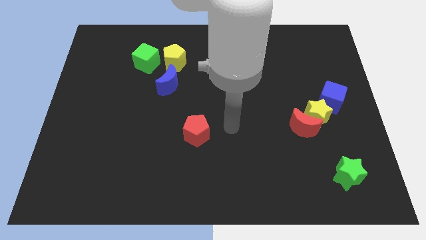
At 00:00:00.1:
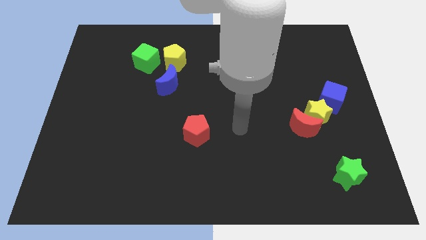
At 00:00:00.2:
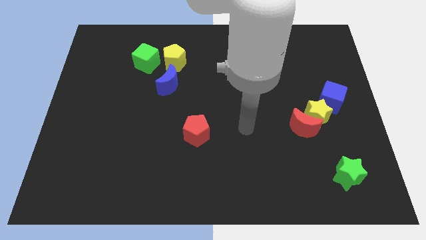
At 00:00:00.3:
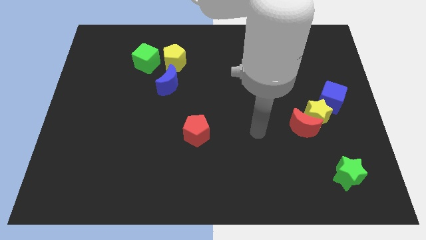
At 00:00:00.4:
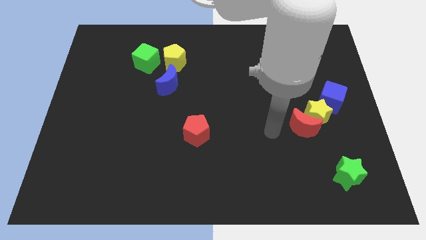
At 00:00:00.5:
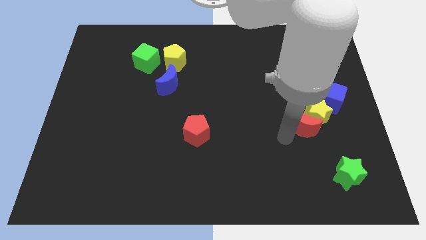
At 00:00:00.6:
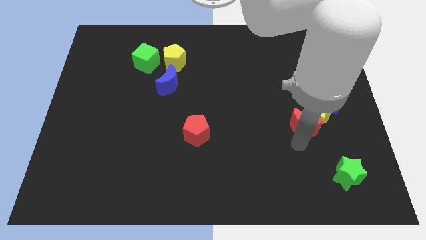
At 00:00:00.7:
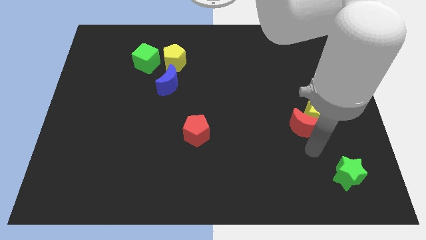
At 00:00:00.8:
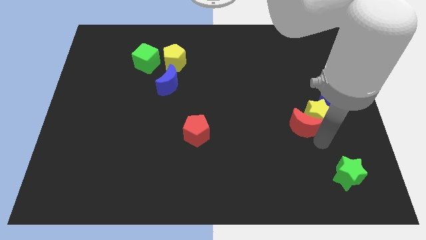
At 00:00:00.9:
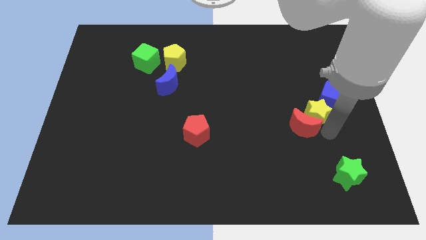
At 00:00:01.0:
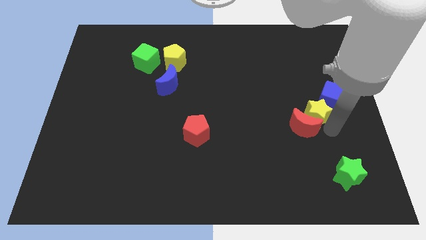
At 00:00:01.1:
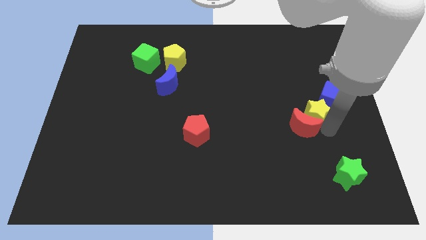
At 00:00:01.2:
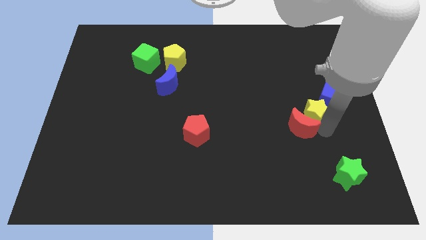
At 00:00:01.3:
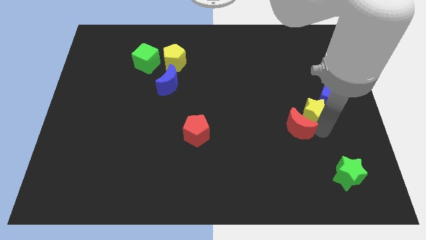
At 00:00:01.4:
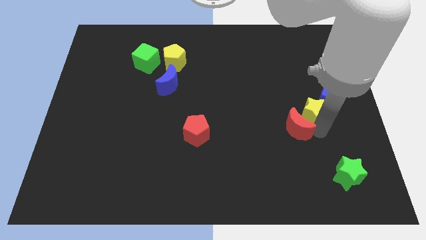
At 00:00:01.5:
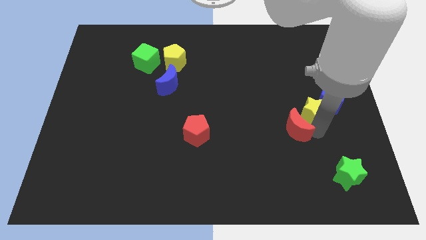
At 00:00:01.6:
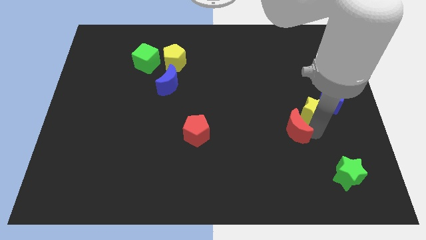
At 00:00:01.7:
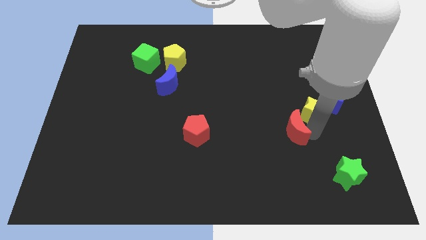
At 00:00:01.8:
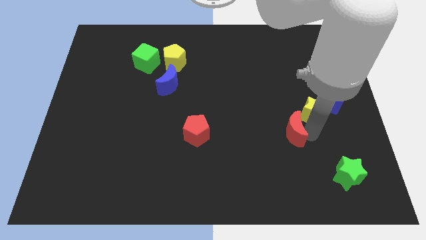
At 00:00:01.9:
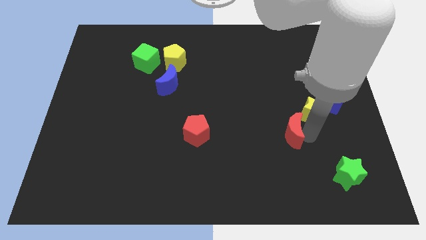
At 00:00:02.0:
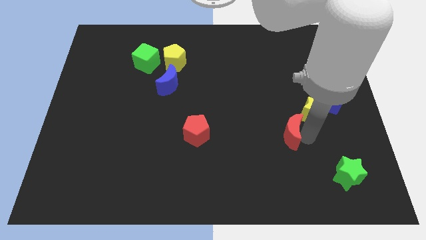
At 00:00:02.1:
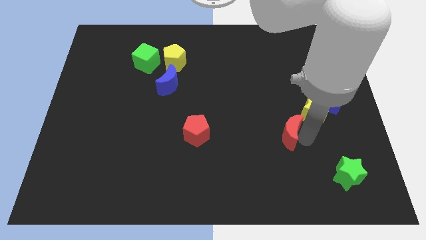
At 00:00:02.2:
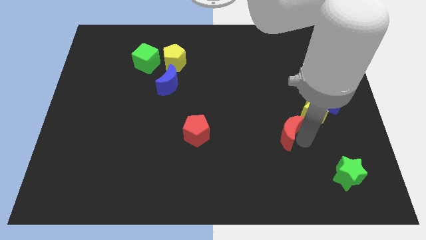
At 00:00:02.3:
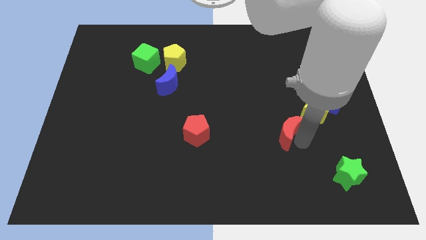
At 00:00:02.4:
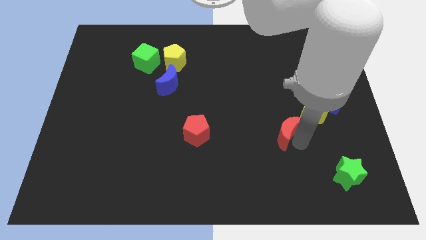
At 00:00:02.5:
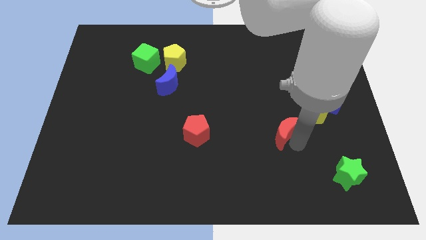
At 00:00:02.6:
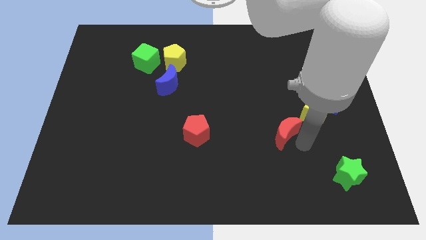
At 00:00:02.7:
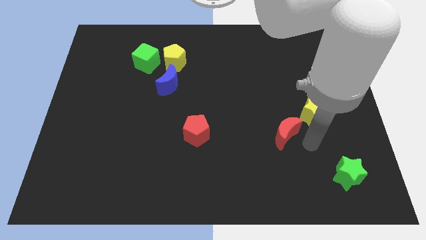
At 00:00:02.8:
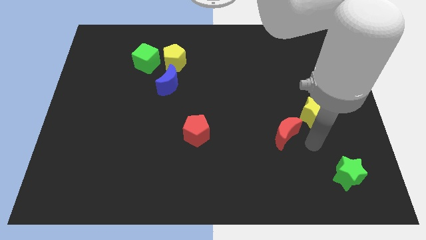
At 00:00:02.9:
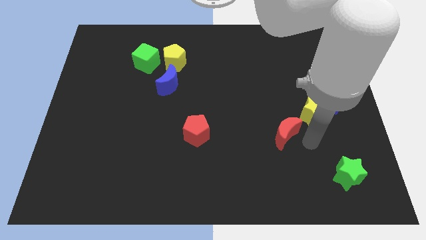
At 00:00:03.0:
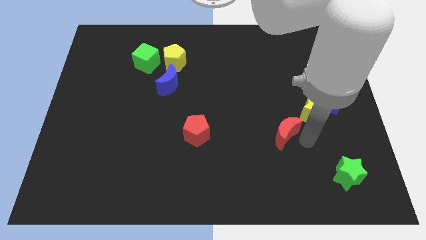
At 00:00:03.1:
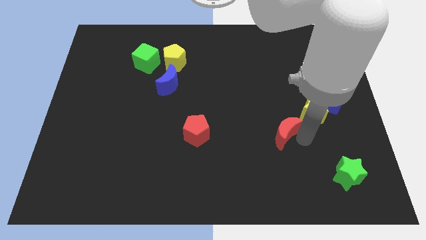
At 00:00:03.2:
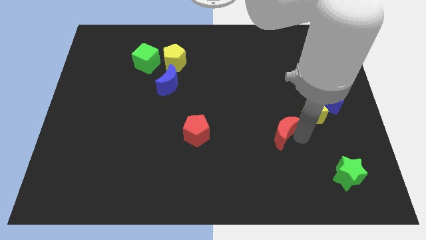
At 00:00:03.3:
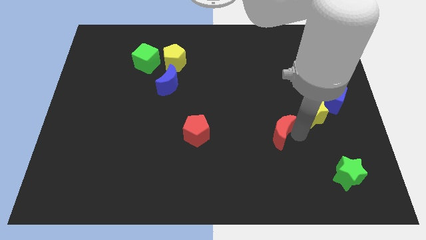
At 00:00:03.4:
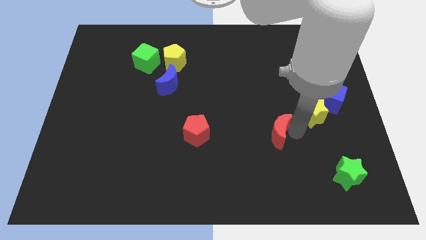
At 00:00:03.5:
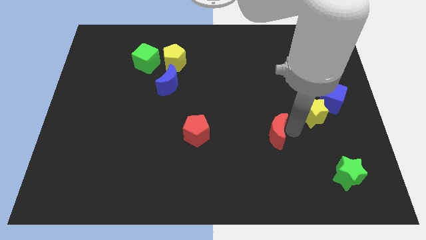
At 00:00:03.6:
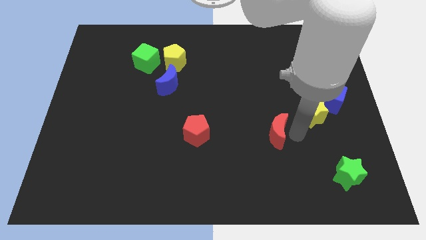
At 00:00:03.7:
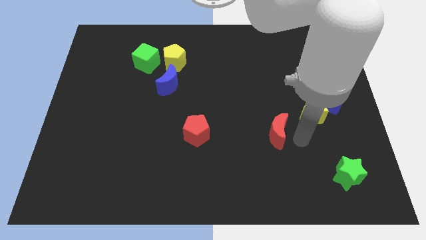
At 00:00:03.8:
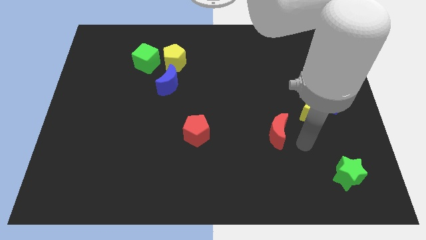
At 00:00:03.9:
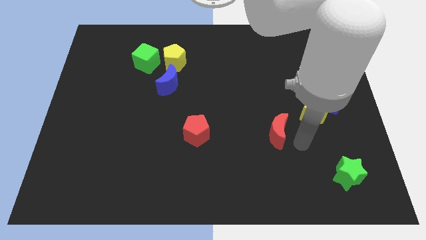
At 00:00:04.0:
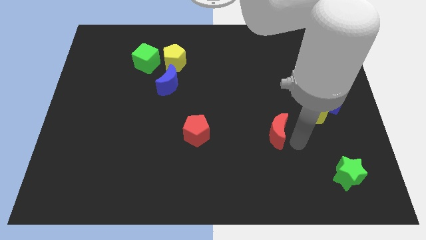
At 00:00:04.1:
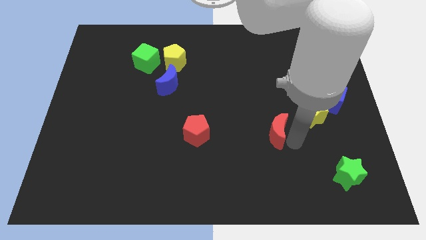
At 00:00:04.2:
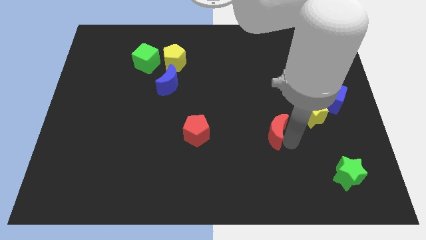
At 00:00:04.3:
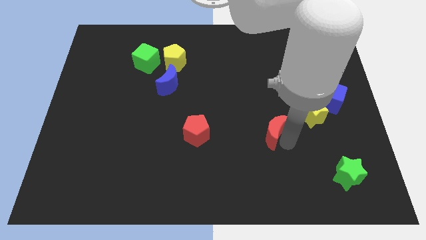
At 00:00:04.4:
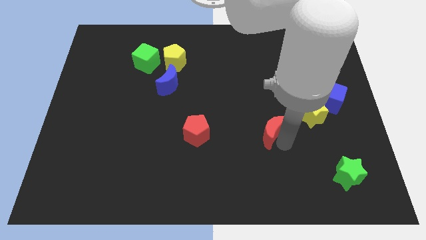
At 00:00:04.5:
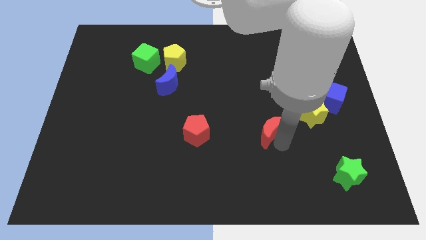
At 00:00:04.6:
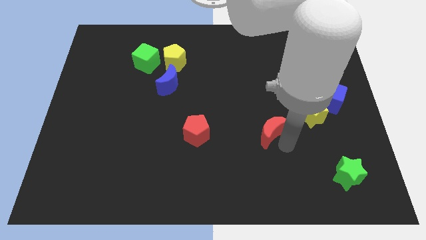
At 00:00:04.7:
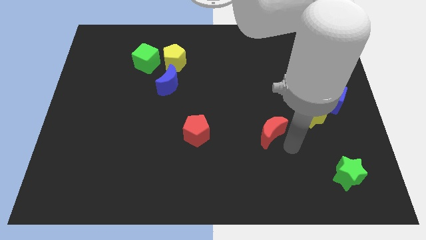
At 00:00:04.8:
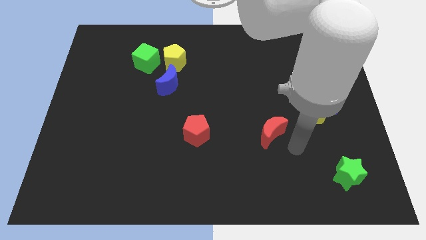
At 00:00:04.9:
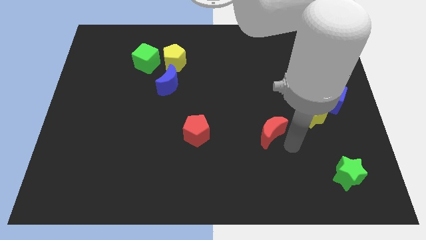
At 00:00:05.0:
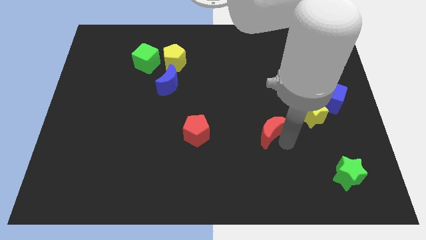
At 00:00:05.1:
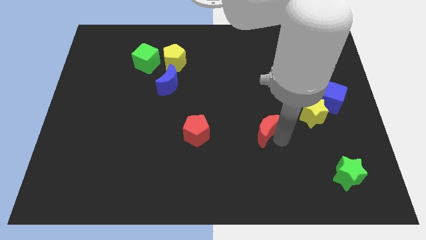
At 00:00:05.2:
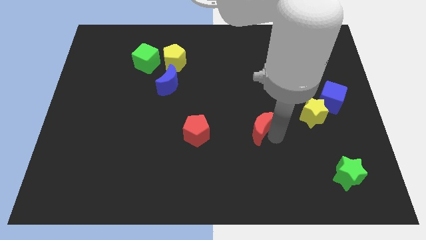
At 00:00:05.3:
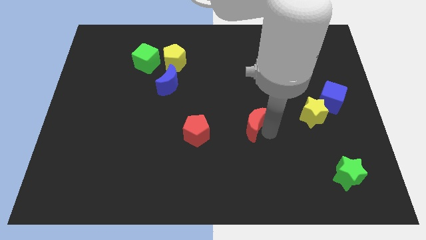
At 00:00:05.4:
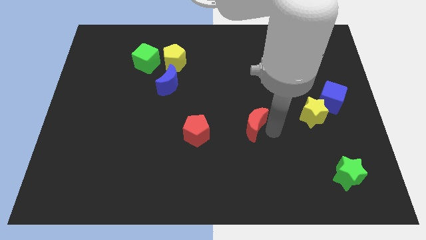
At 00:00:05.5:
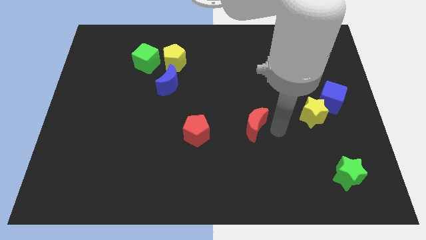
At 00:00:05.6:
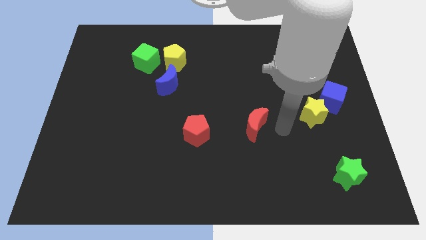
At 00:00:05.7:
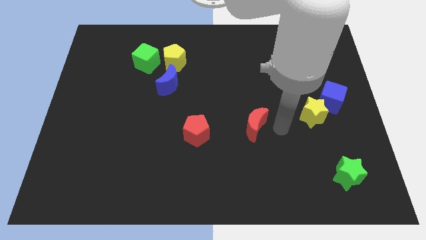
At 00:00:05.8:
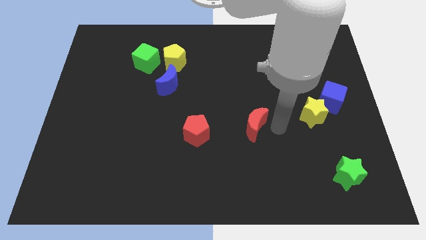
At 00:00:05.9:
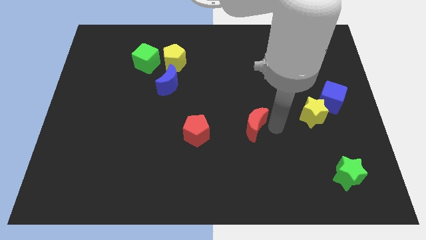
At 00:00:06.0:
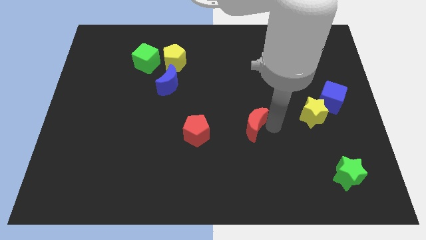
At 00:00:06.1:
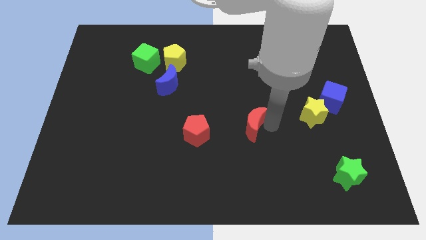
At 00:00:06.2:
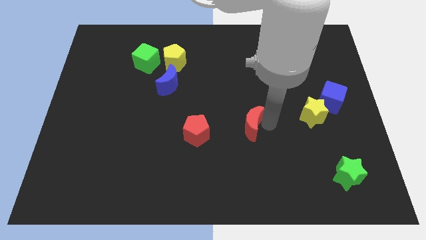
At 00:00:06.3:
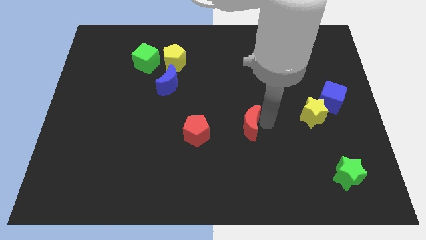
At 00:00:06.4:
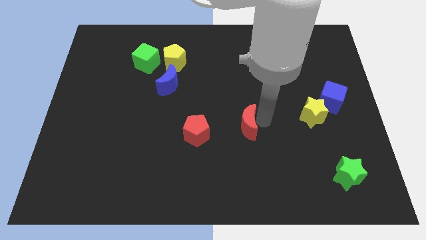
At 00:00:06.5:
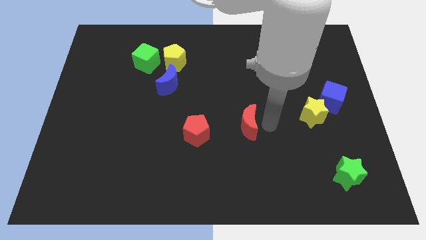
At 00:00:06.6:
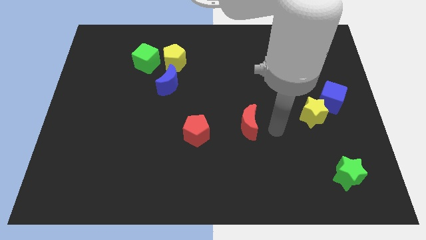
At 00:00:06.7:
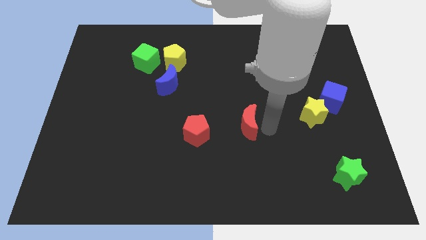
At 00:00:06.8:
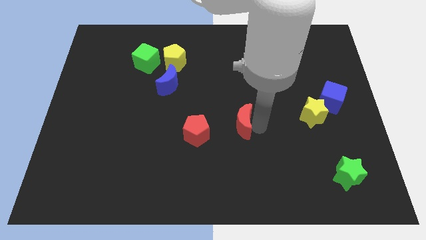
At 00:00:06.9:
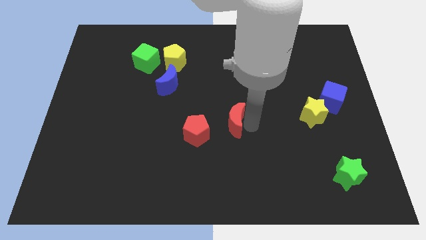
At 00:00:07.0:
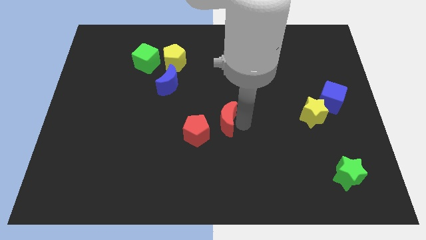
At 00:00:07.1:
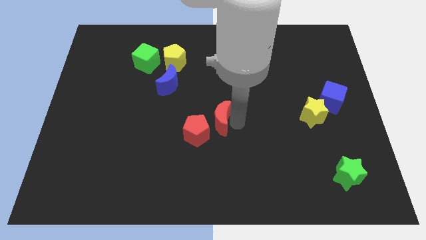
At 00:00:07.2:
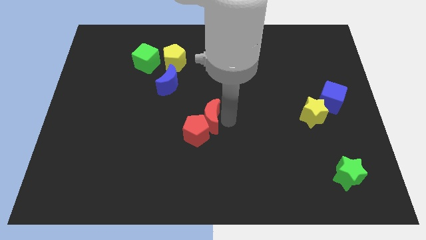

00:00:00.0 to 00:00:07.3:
move the red moon left

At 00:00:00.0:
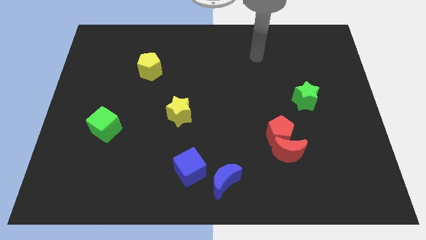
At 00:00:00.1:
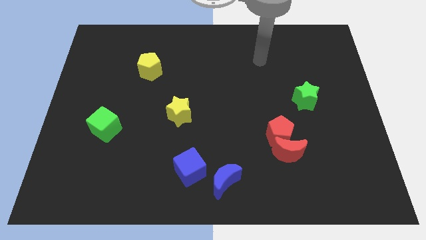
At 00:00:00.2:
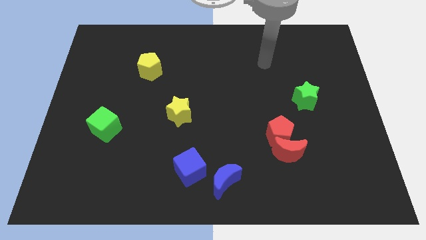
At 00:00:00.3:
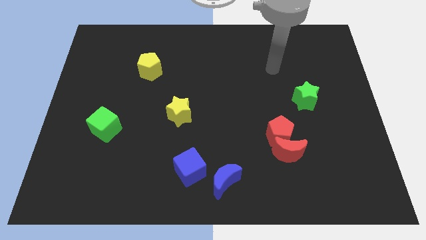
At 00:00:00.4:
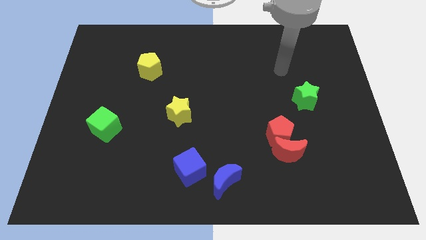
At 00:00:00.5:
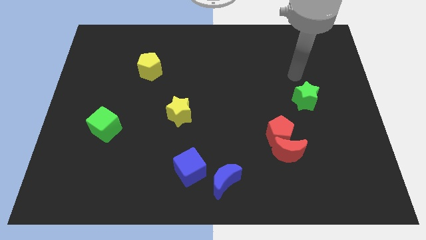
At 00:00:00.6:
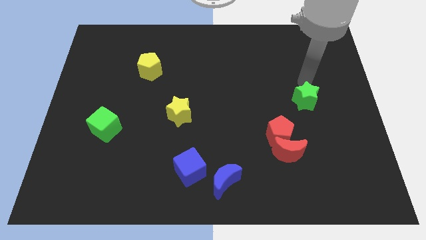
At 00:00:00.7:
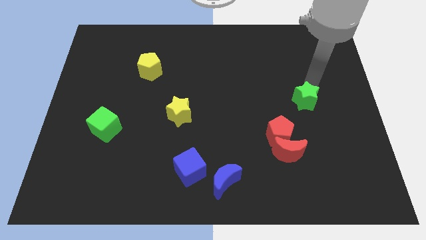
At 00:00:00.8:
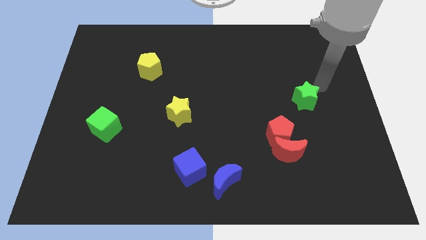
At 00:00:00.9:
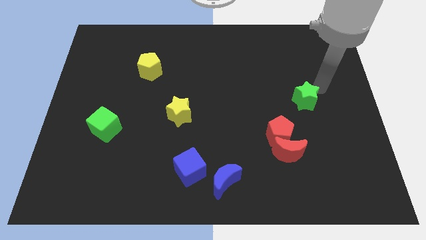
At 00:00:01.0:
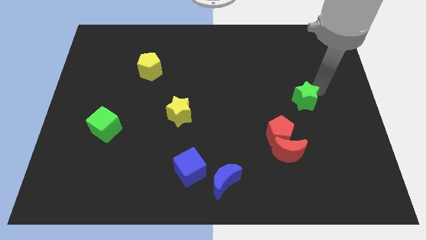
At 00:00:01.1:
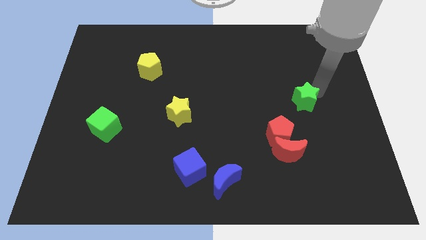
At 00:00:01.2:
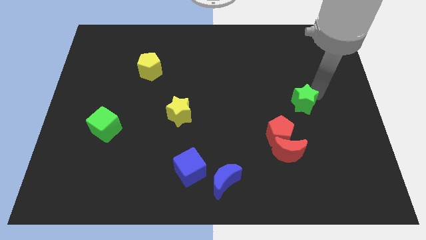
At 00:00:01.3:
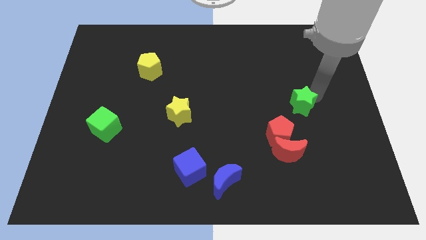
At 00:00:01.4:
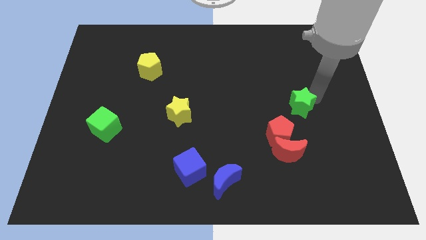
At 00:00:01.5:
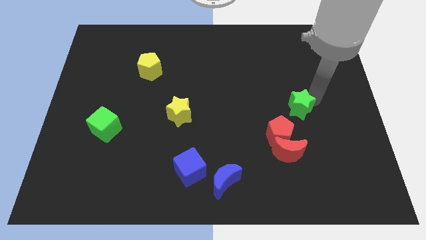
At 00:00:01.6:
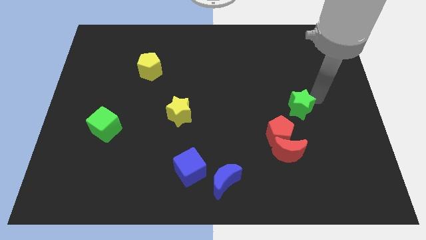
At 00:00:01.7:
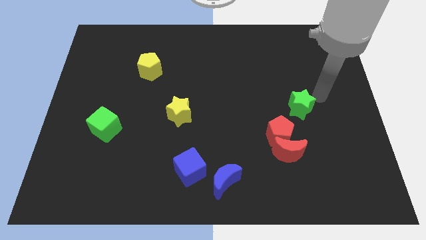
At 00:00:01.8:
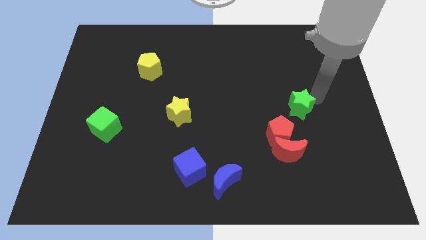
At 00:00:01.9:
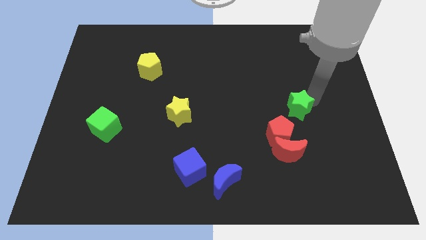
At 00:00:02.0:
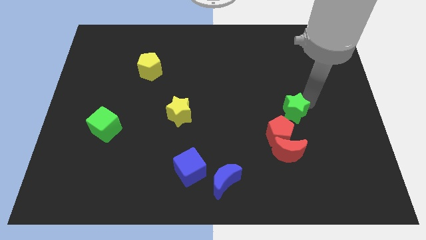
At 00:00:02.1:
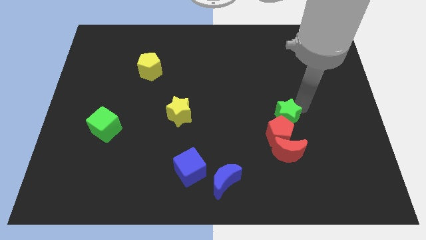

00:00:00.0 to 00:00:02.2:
slightly slide the green star downwards and left diagonally
